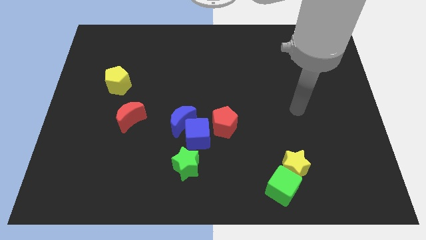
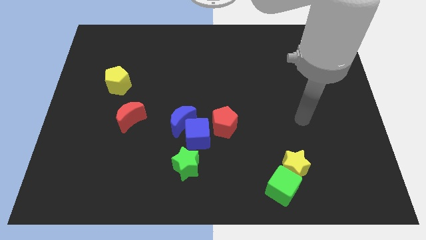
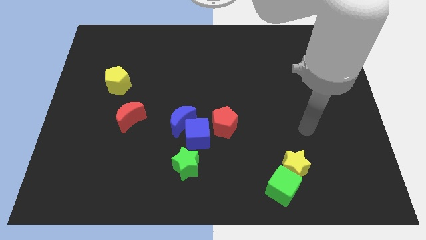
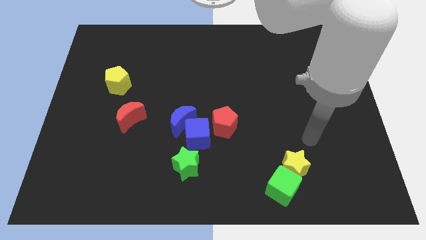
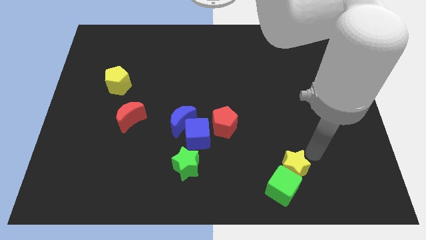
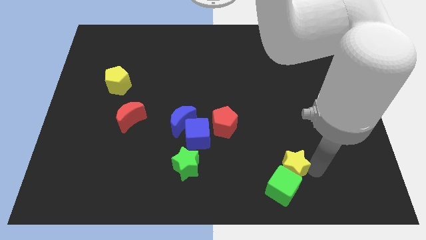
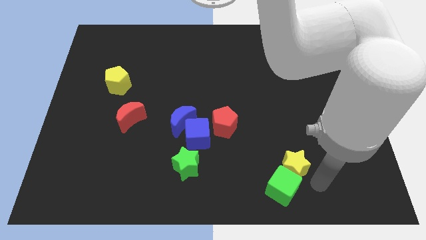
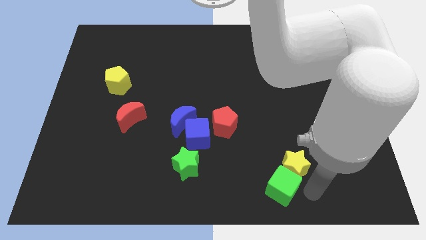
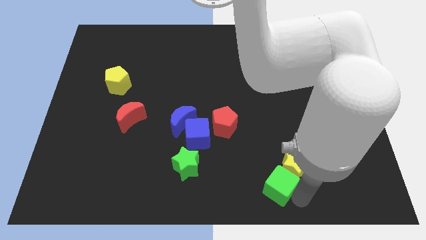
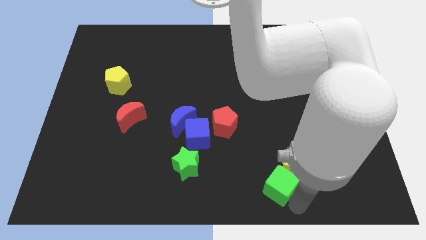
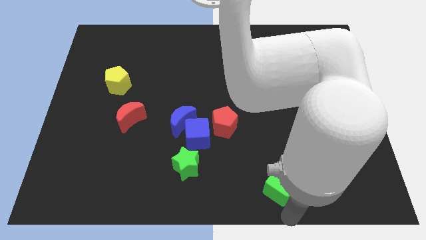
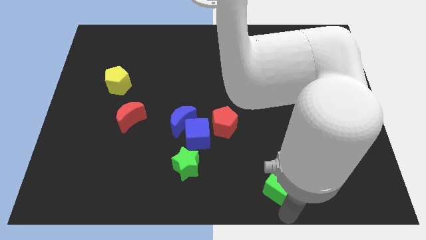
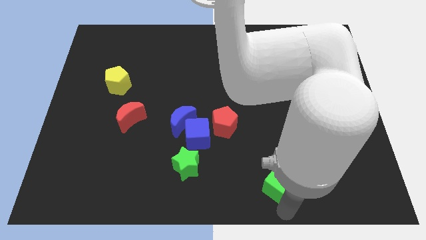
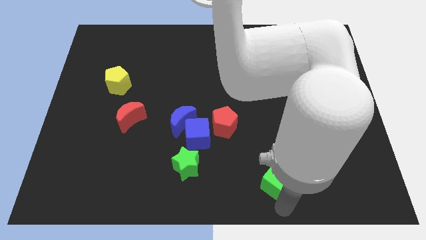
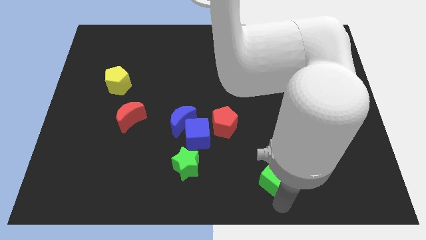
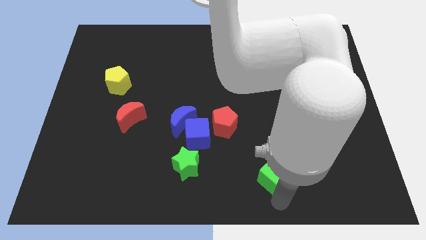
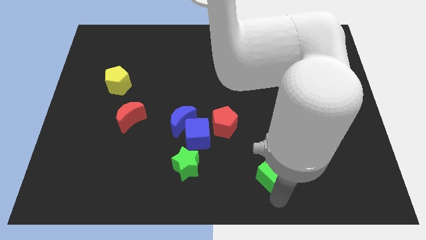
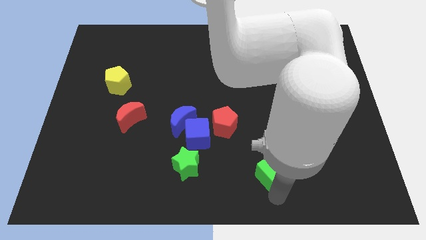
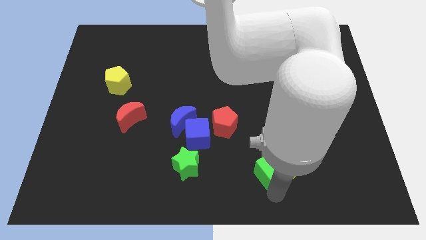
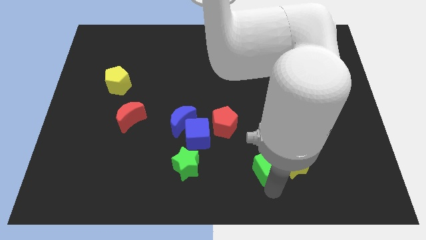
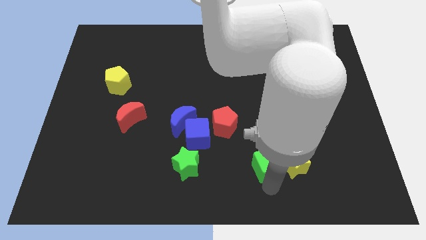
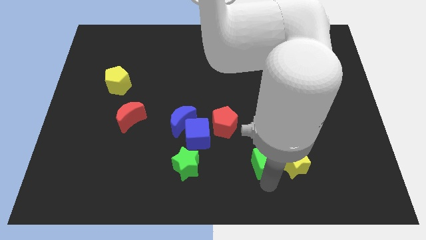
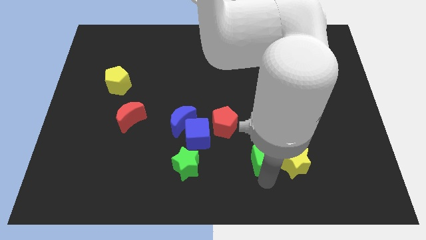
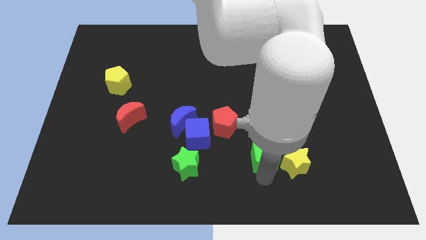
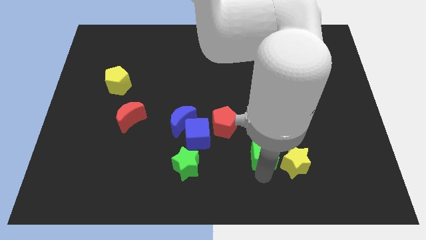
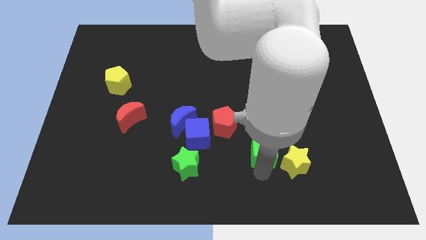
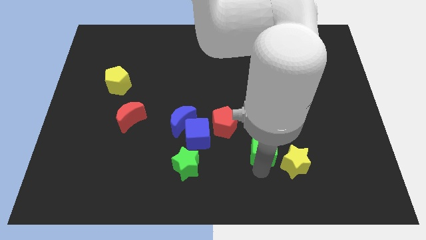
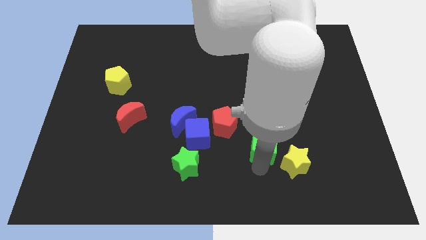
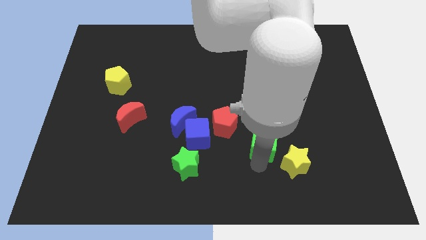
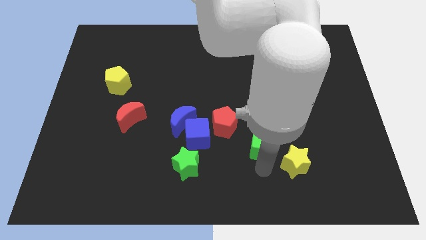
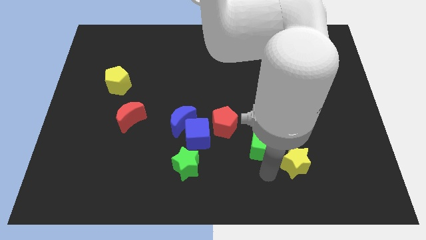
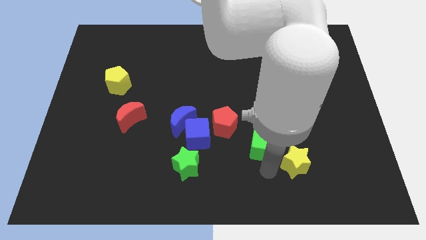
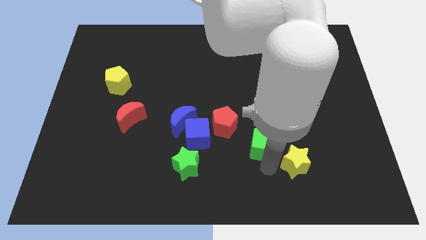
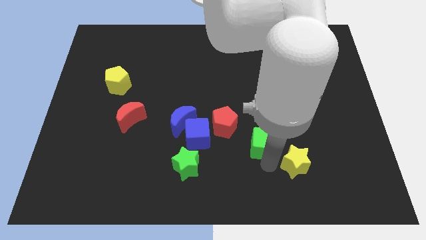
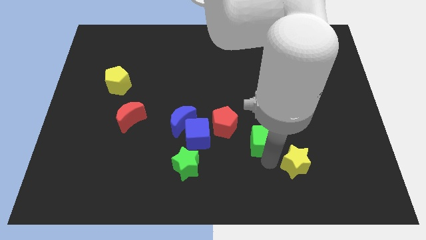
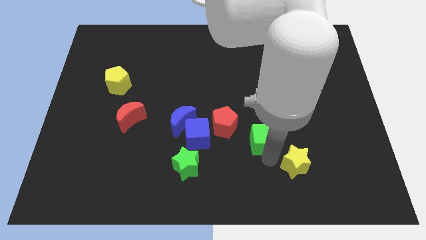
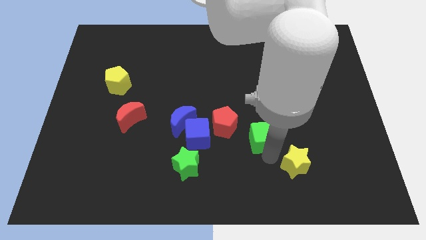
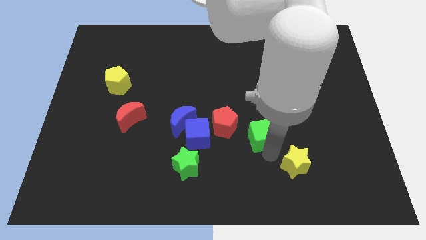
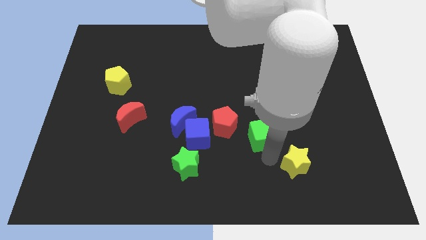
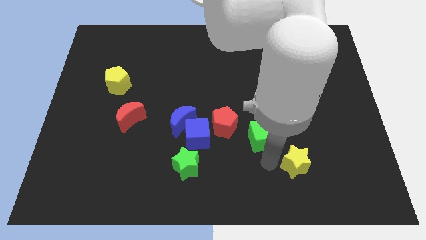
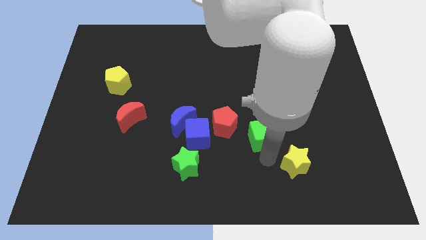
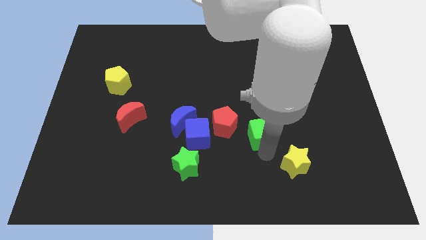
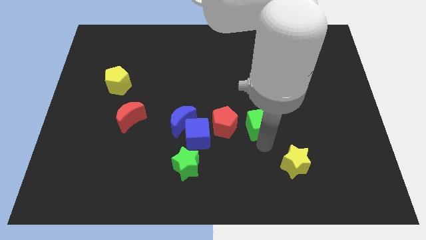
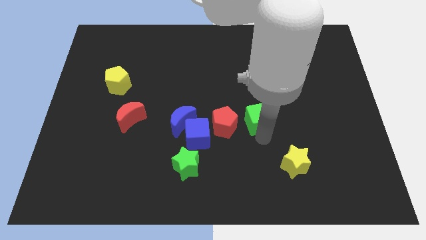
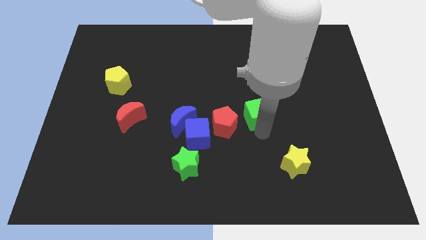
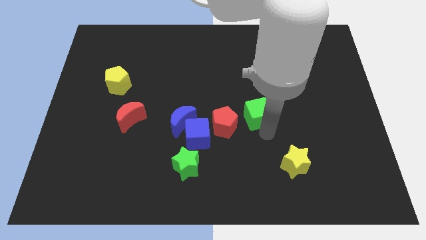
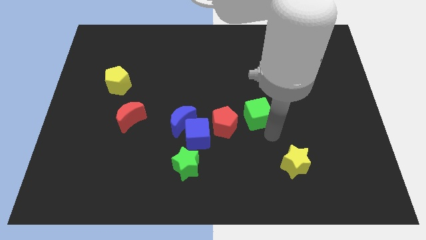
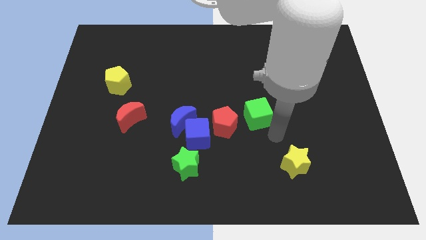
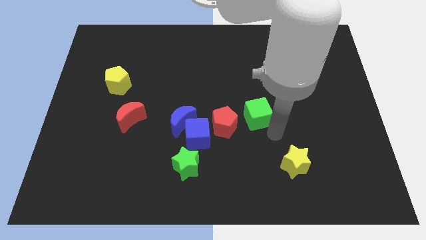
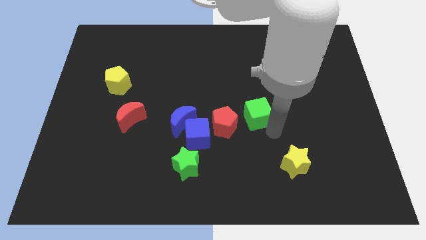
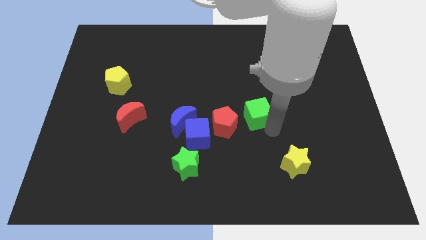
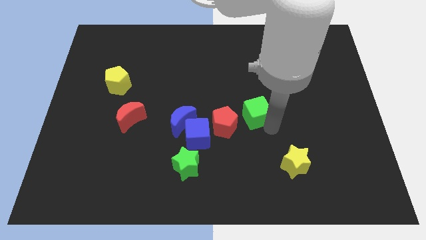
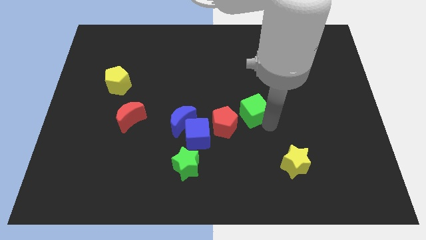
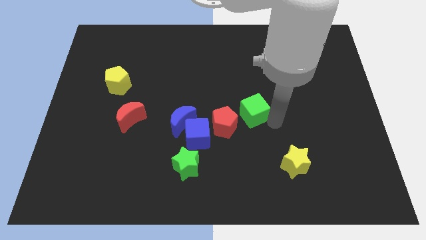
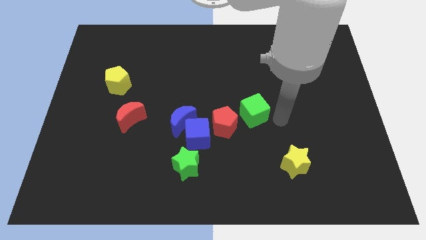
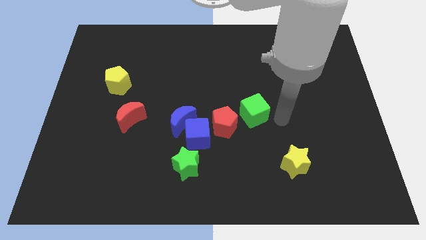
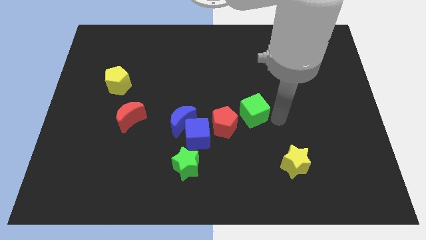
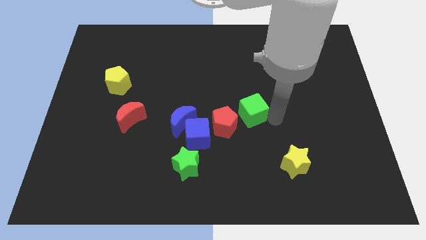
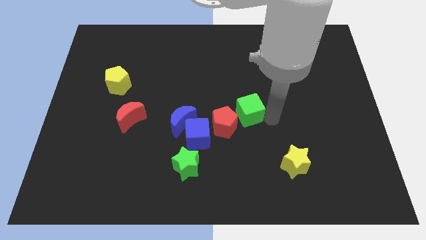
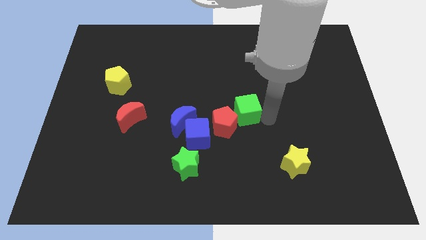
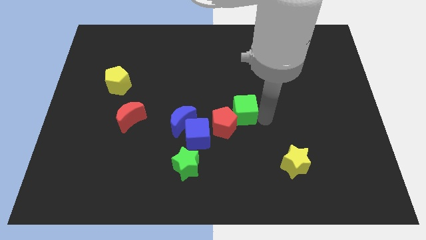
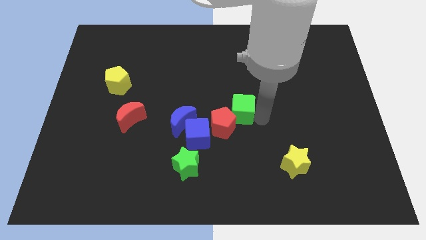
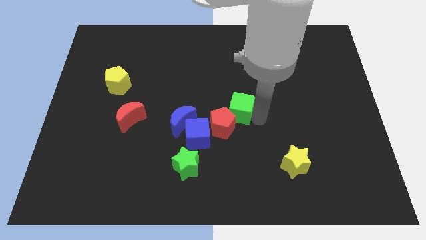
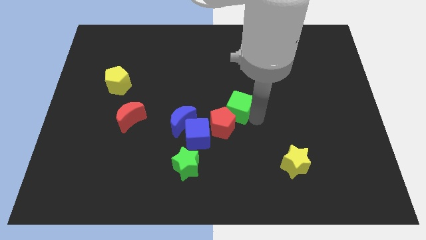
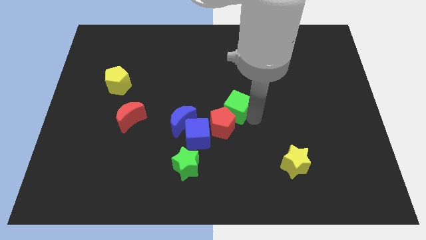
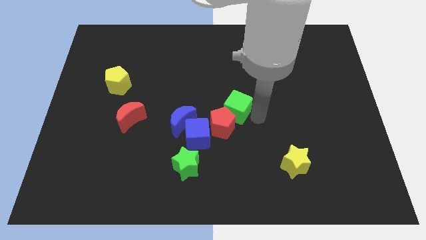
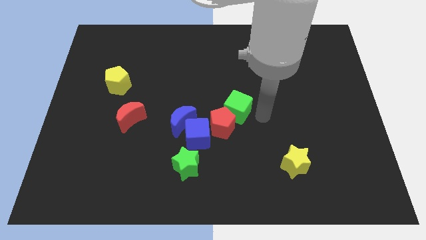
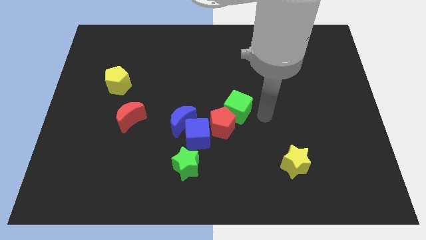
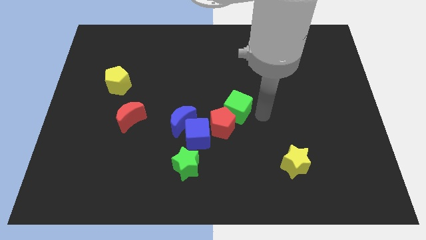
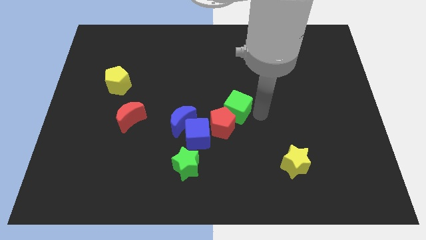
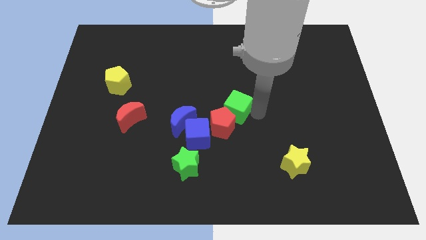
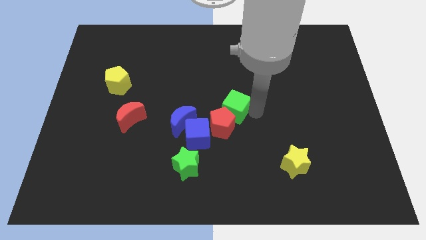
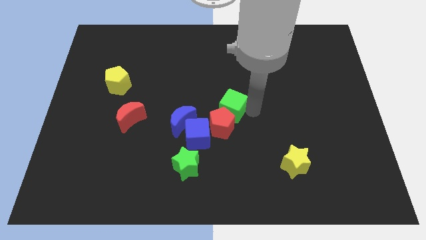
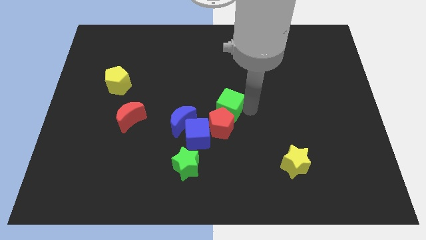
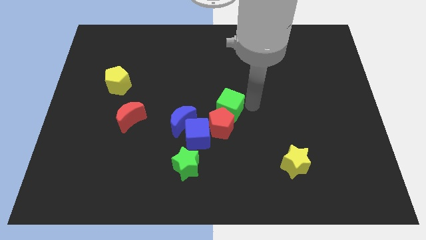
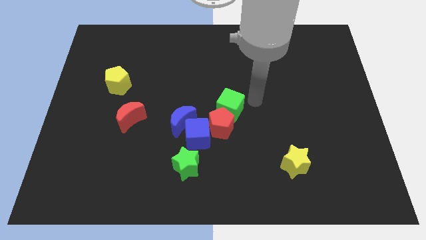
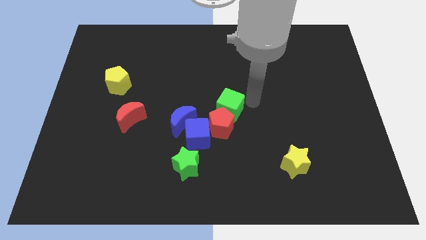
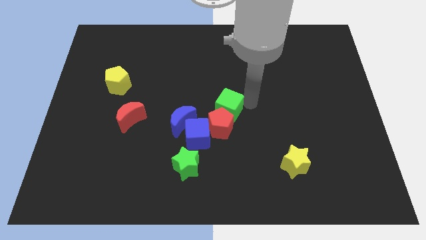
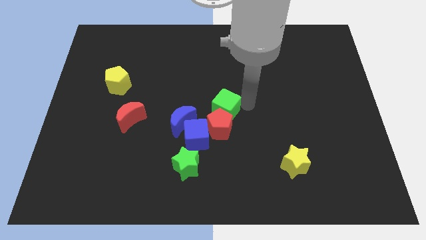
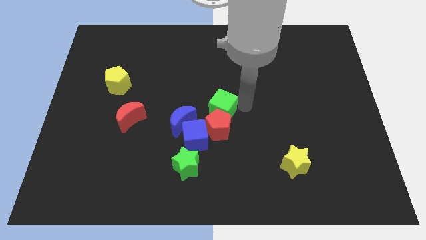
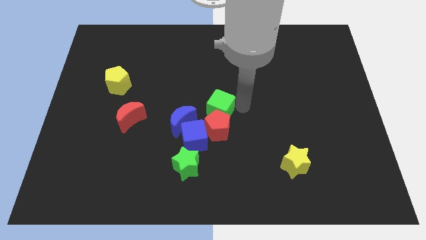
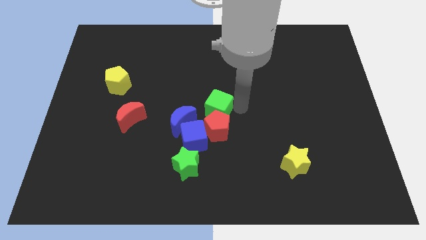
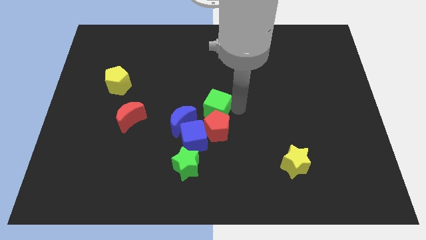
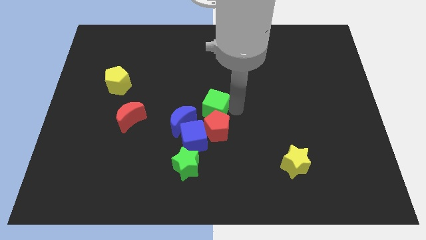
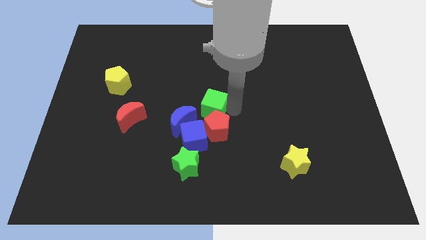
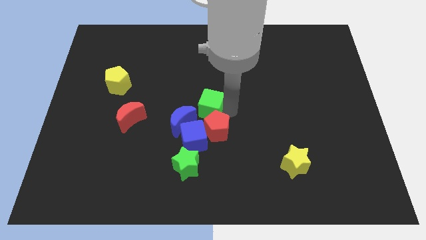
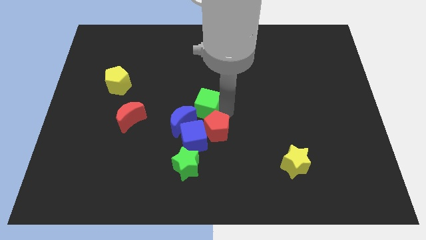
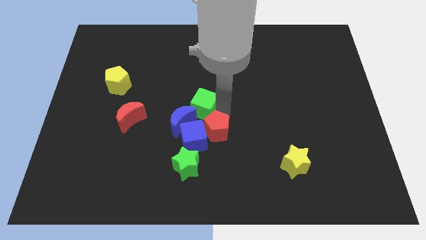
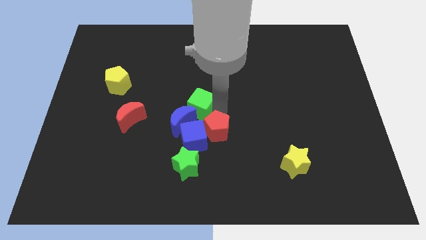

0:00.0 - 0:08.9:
push the green cube next to the blue moon
